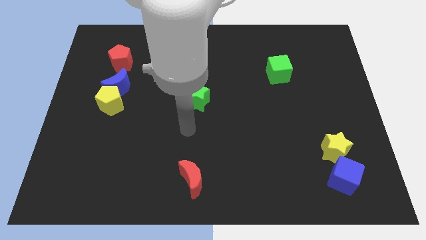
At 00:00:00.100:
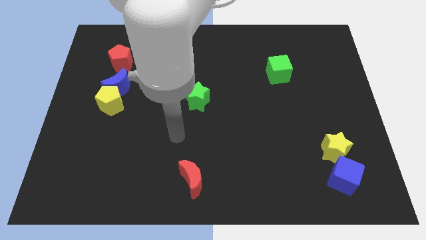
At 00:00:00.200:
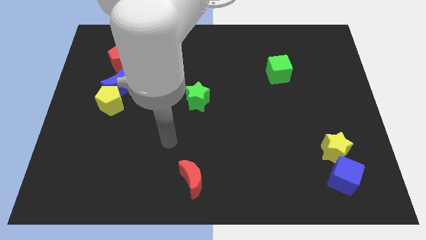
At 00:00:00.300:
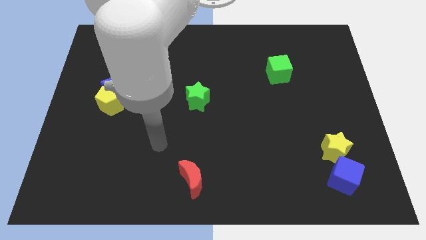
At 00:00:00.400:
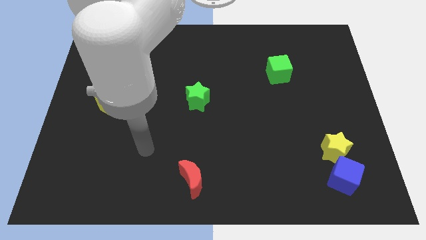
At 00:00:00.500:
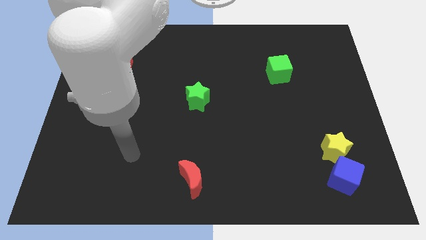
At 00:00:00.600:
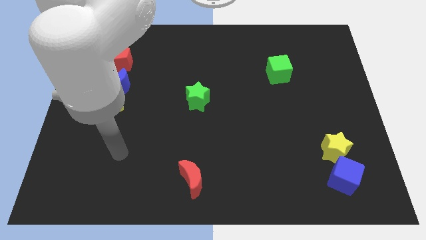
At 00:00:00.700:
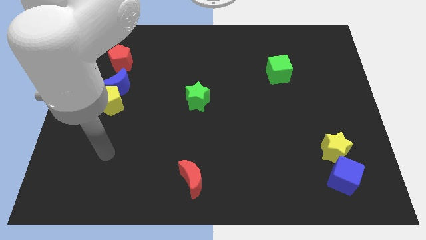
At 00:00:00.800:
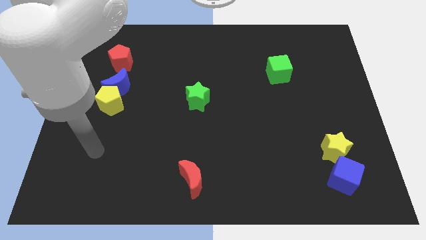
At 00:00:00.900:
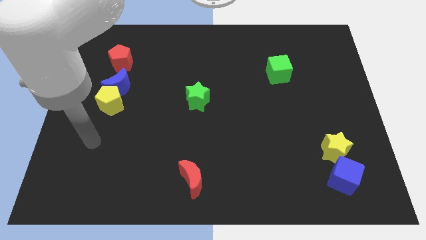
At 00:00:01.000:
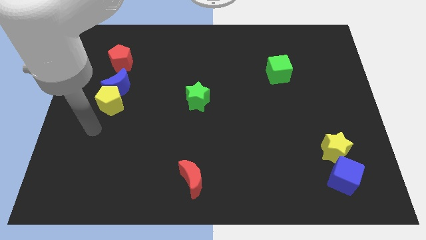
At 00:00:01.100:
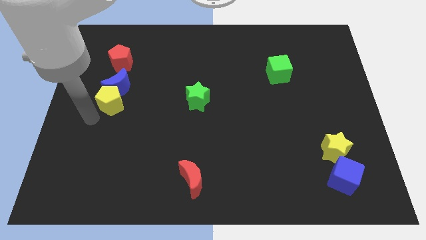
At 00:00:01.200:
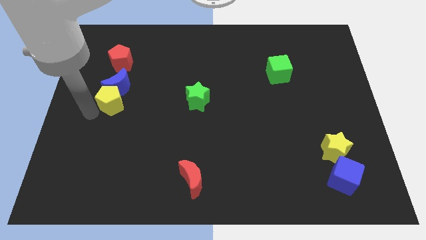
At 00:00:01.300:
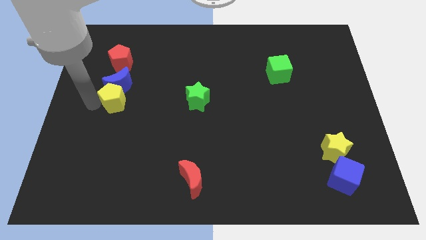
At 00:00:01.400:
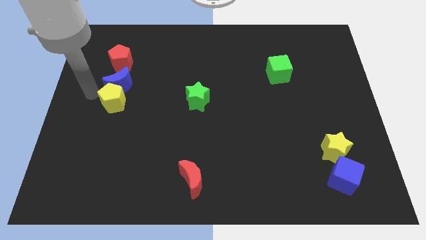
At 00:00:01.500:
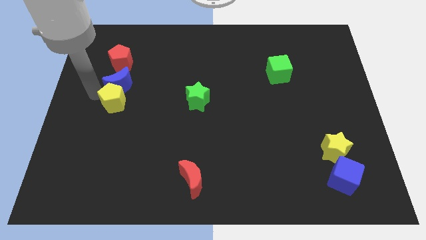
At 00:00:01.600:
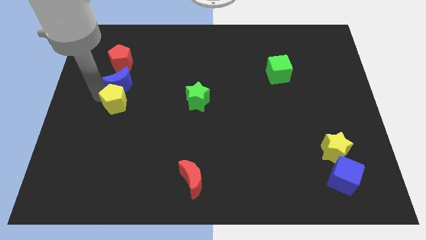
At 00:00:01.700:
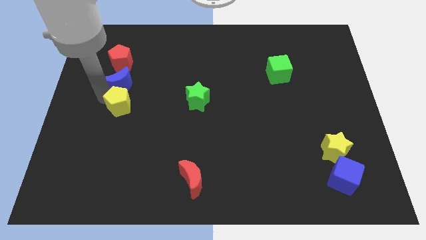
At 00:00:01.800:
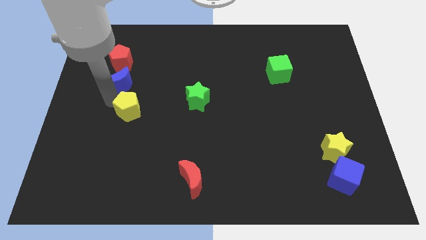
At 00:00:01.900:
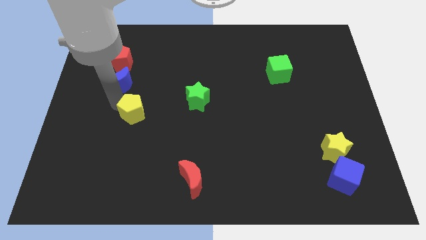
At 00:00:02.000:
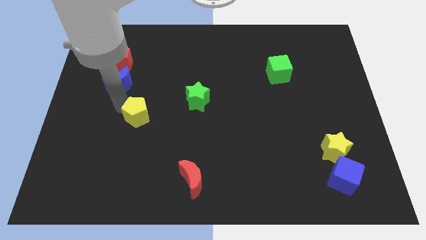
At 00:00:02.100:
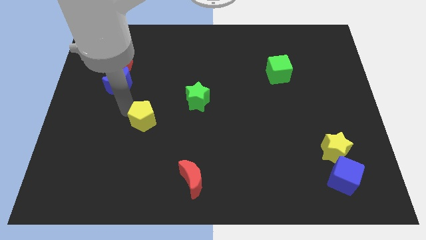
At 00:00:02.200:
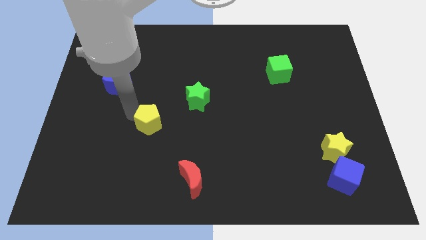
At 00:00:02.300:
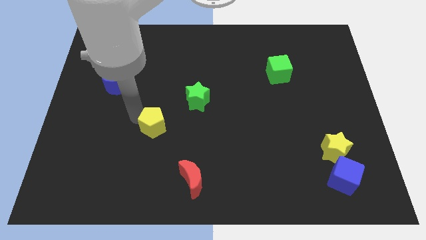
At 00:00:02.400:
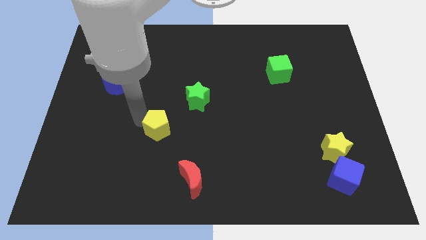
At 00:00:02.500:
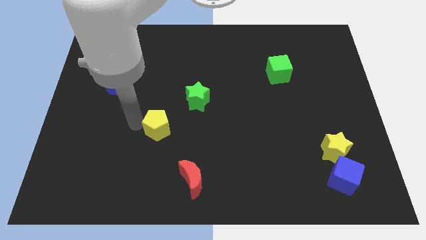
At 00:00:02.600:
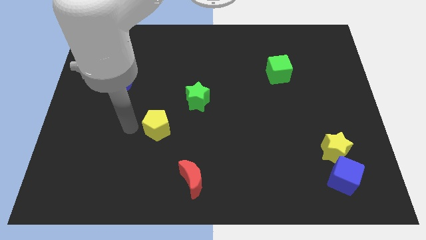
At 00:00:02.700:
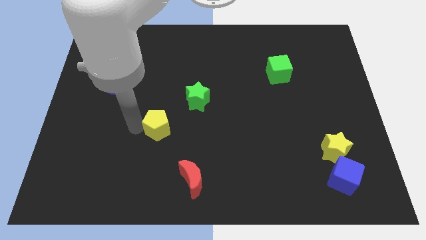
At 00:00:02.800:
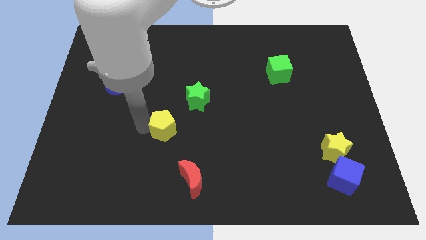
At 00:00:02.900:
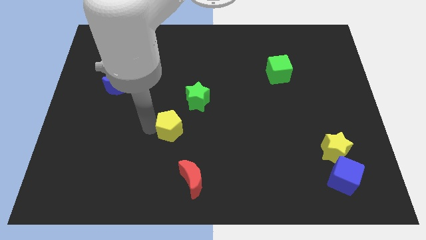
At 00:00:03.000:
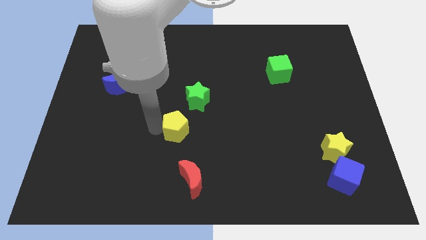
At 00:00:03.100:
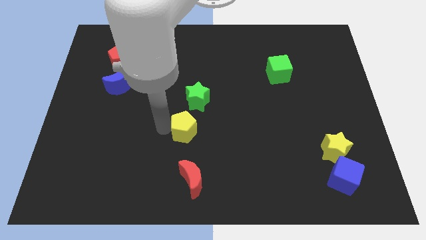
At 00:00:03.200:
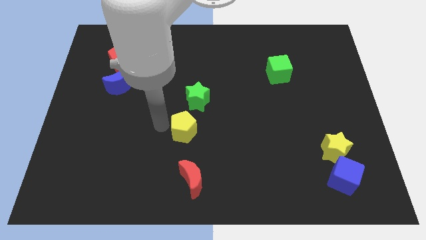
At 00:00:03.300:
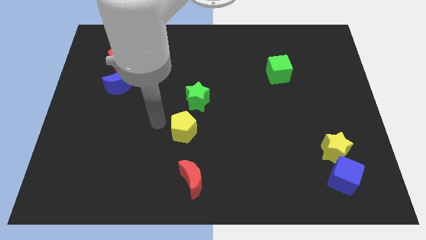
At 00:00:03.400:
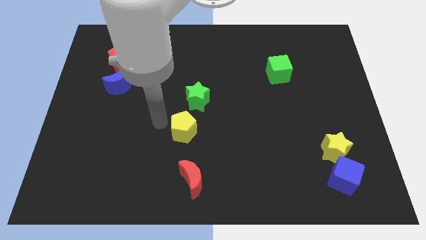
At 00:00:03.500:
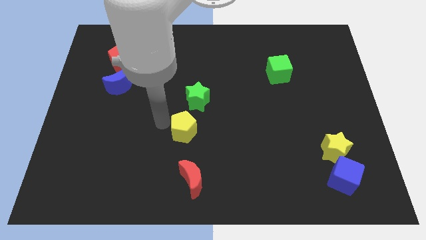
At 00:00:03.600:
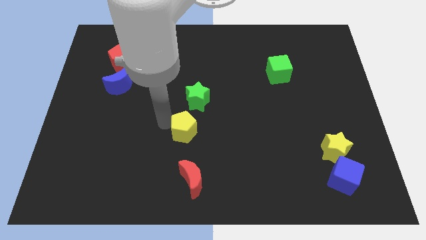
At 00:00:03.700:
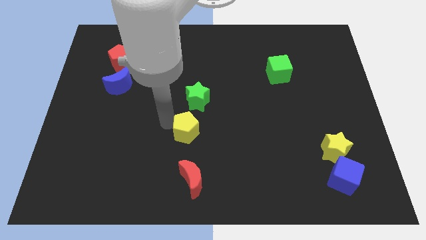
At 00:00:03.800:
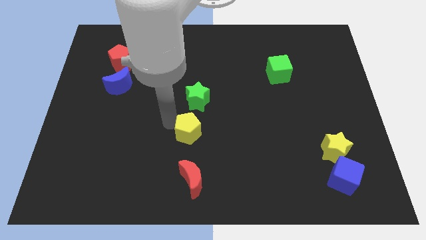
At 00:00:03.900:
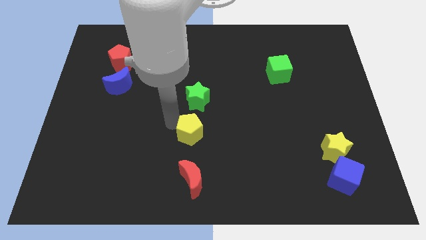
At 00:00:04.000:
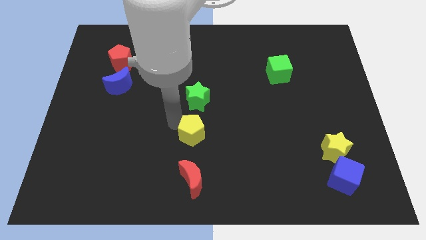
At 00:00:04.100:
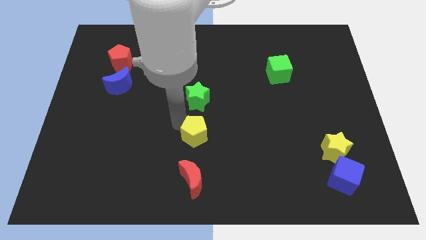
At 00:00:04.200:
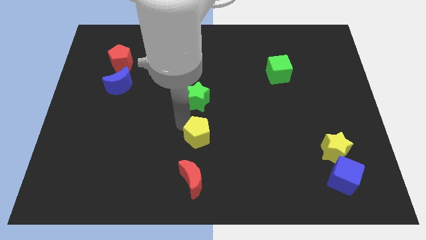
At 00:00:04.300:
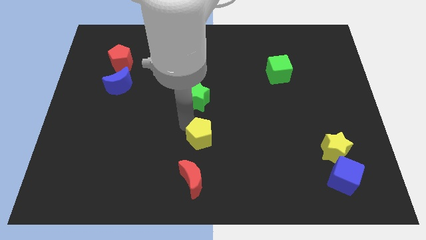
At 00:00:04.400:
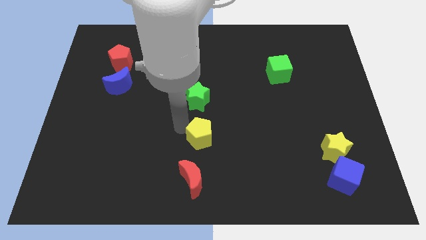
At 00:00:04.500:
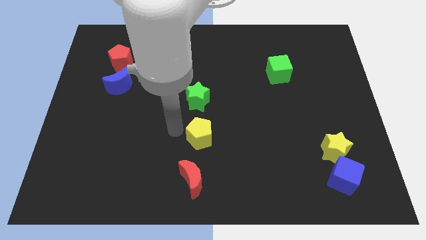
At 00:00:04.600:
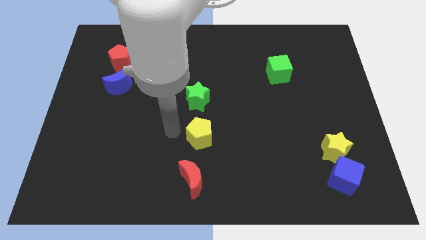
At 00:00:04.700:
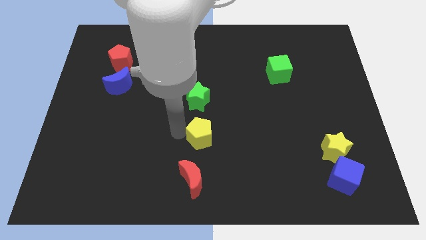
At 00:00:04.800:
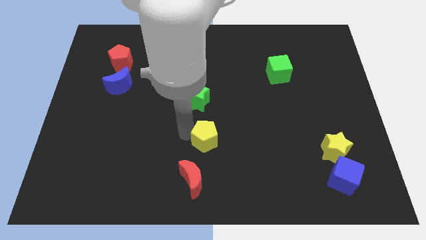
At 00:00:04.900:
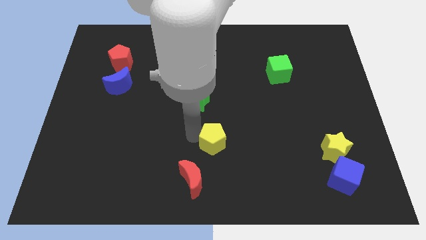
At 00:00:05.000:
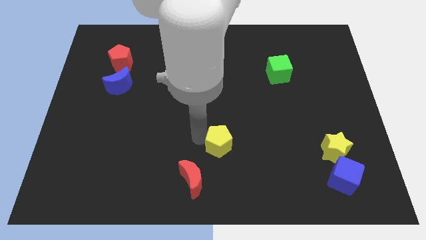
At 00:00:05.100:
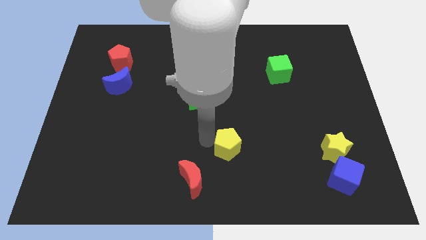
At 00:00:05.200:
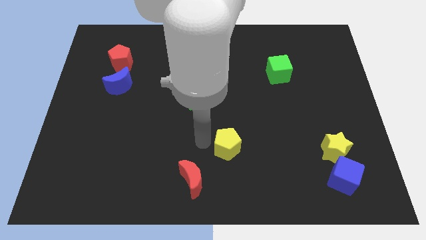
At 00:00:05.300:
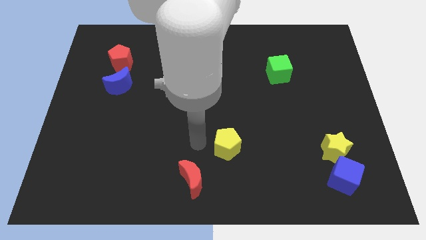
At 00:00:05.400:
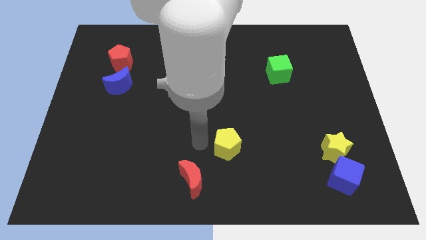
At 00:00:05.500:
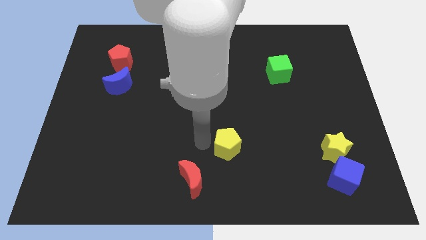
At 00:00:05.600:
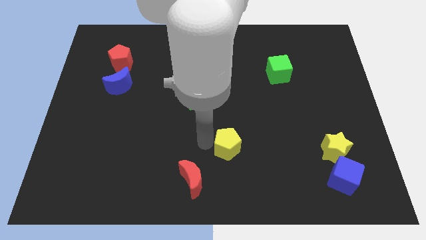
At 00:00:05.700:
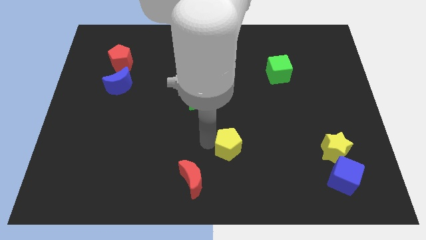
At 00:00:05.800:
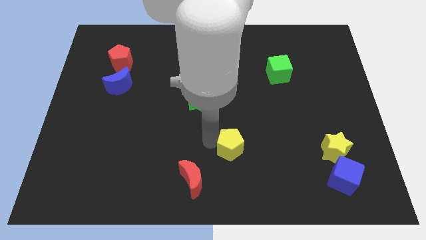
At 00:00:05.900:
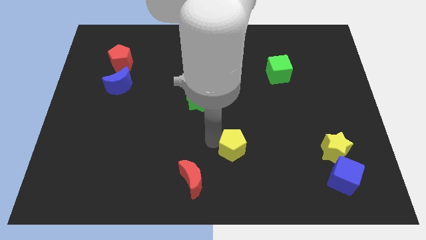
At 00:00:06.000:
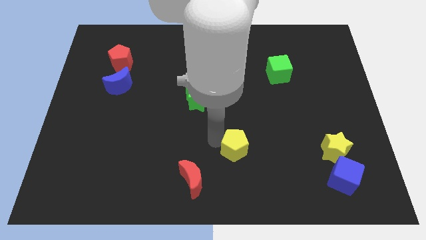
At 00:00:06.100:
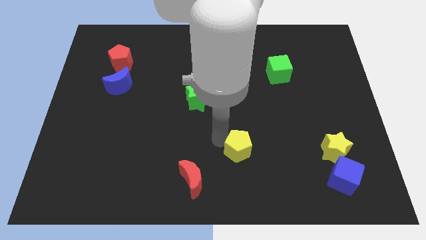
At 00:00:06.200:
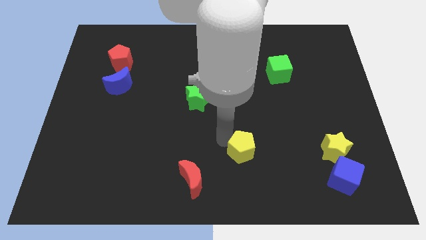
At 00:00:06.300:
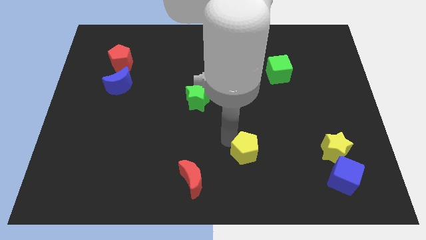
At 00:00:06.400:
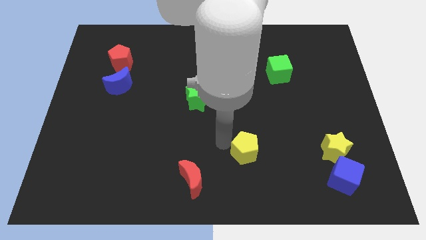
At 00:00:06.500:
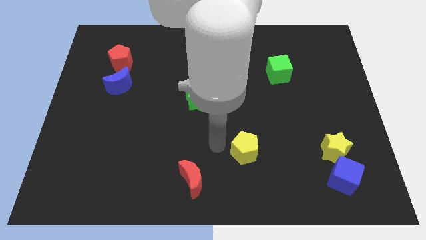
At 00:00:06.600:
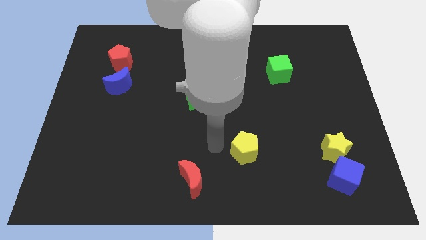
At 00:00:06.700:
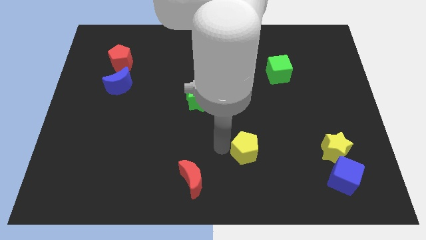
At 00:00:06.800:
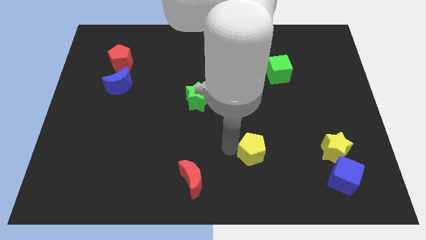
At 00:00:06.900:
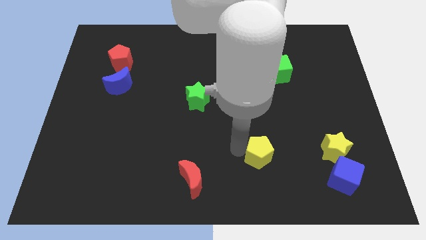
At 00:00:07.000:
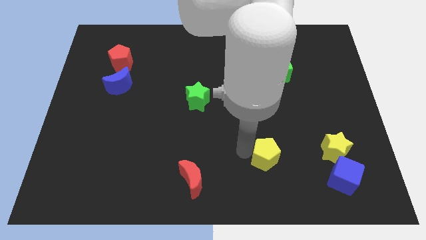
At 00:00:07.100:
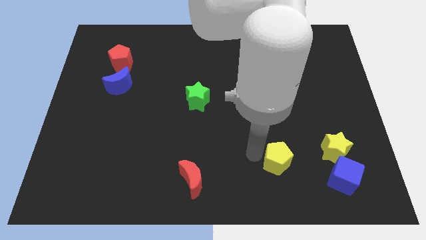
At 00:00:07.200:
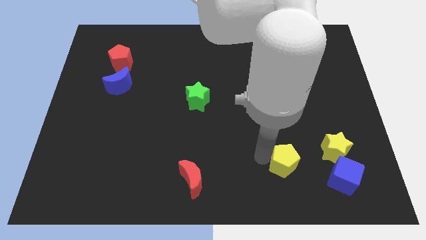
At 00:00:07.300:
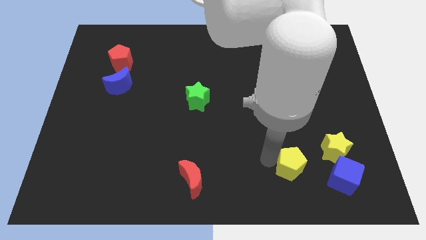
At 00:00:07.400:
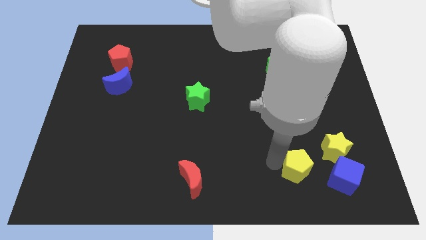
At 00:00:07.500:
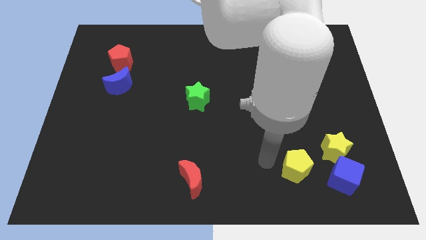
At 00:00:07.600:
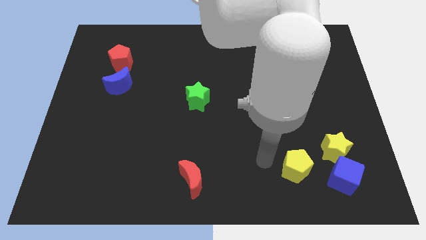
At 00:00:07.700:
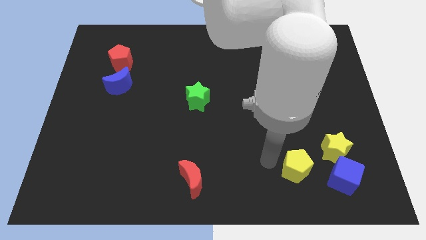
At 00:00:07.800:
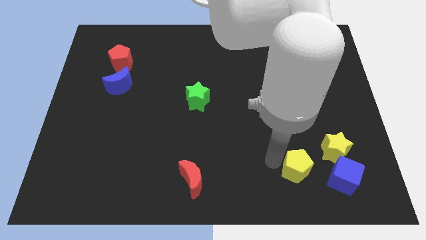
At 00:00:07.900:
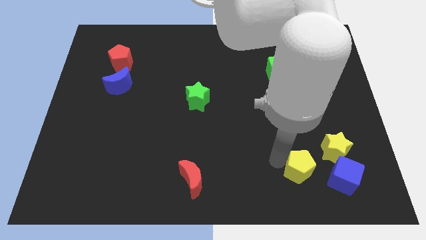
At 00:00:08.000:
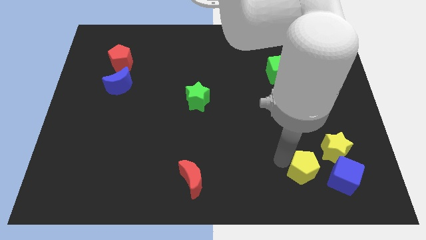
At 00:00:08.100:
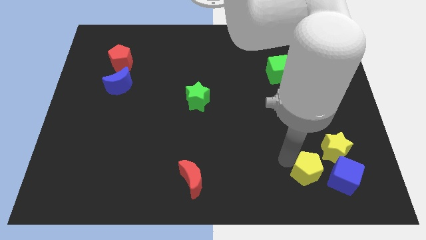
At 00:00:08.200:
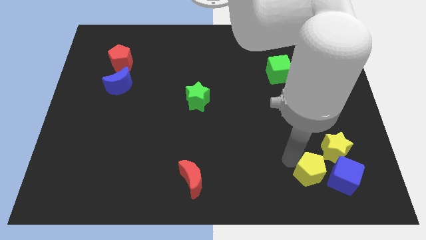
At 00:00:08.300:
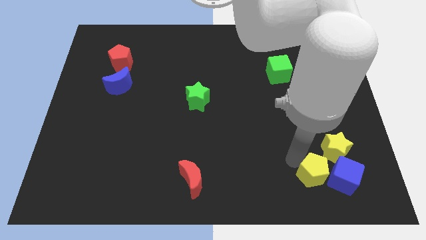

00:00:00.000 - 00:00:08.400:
slide the yellow pentagon next to the blue cube
